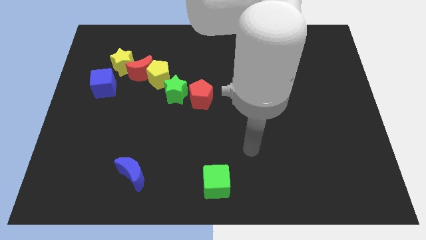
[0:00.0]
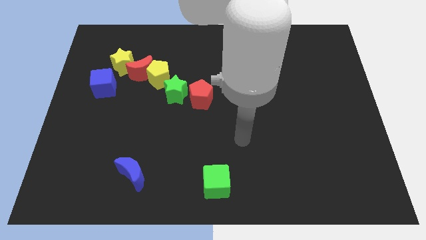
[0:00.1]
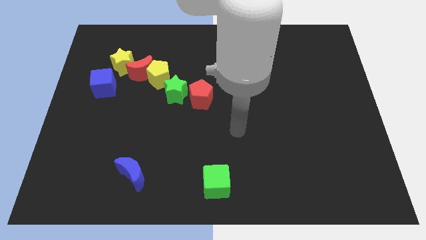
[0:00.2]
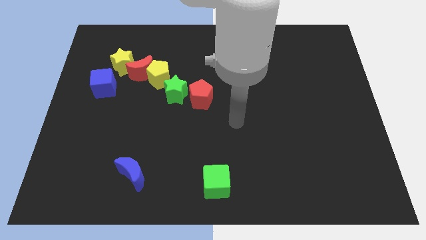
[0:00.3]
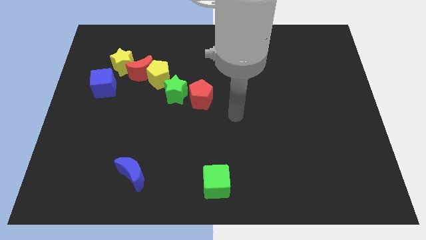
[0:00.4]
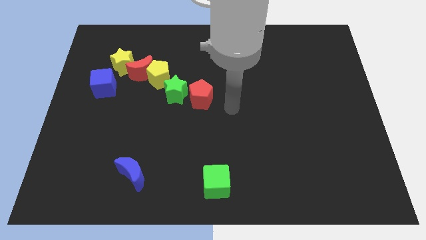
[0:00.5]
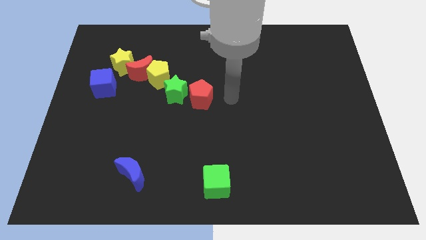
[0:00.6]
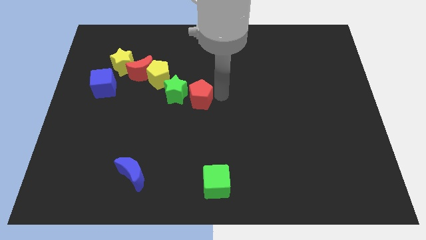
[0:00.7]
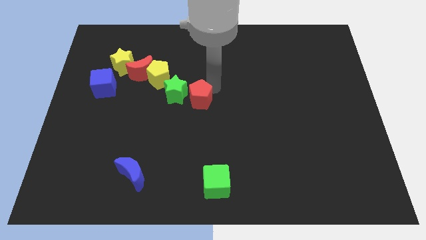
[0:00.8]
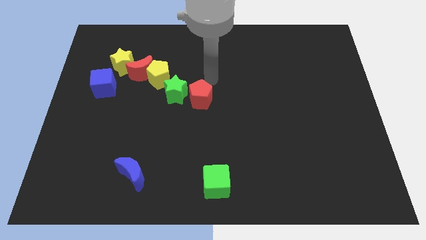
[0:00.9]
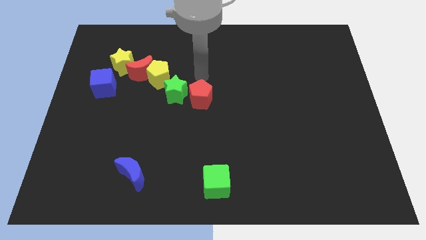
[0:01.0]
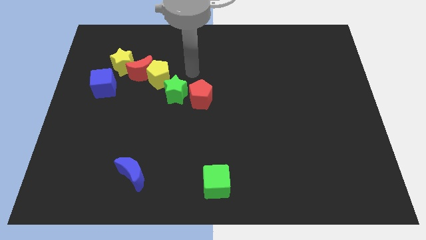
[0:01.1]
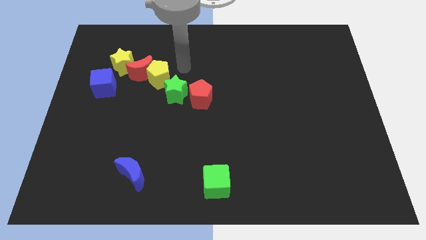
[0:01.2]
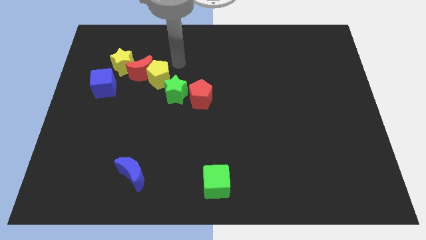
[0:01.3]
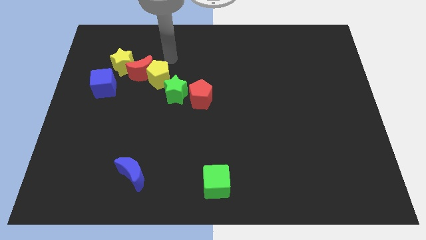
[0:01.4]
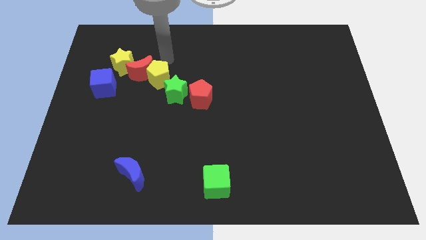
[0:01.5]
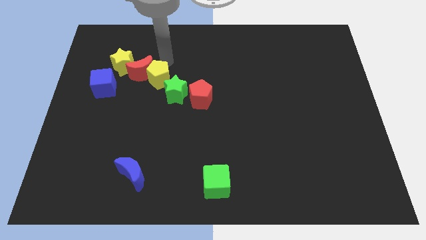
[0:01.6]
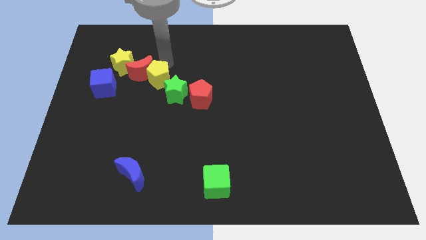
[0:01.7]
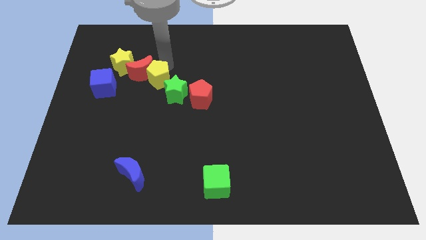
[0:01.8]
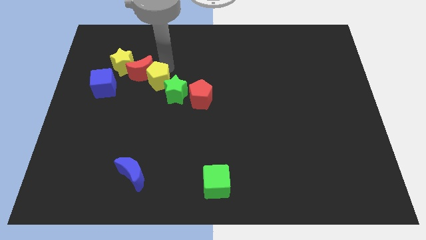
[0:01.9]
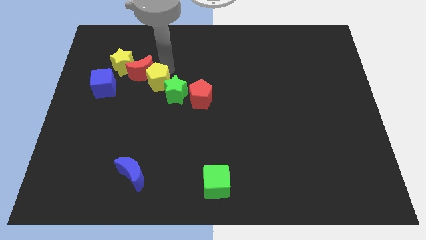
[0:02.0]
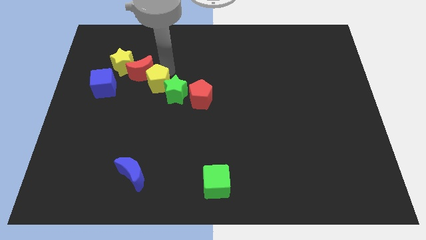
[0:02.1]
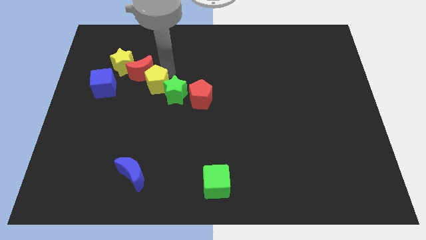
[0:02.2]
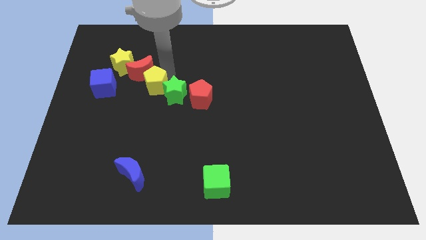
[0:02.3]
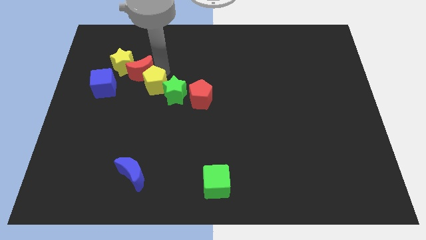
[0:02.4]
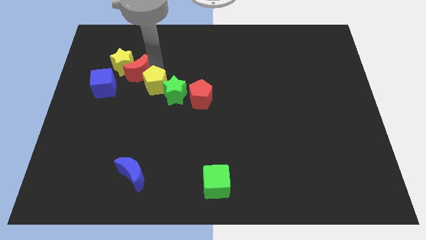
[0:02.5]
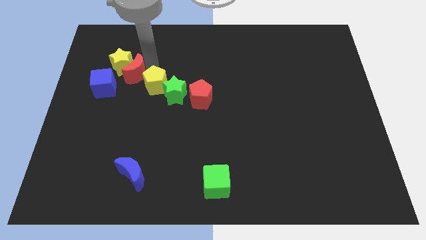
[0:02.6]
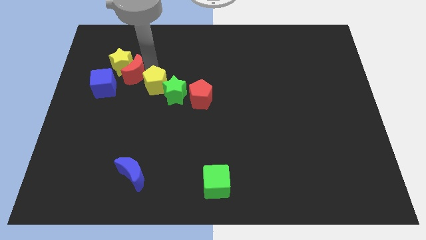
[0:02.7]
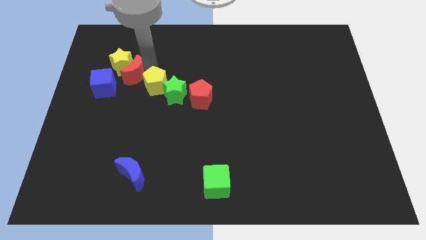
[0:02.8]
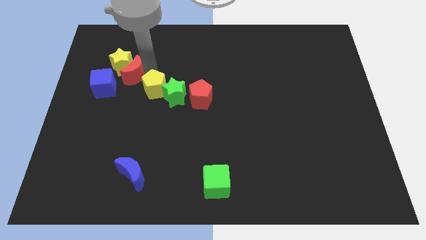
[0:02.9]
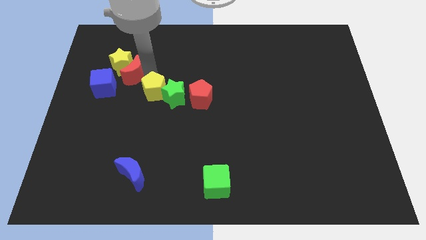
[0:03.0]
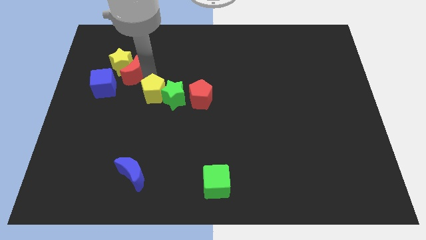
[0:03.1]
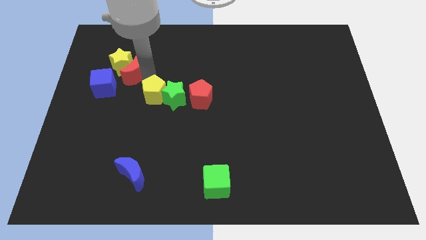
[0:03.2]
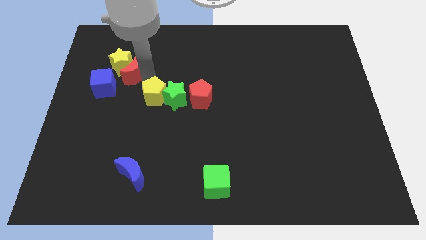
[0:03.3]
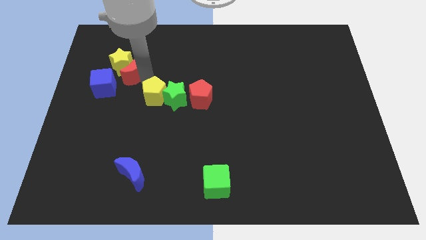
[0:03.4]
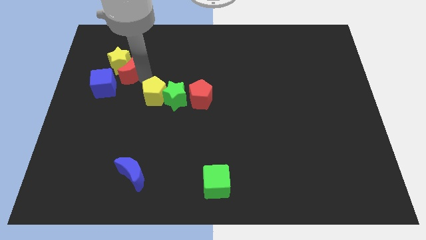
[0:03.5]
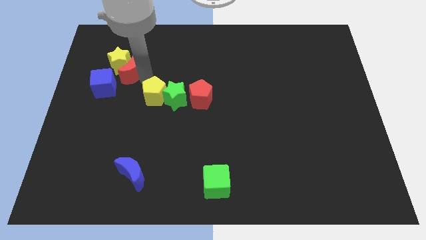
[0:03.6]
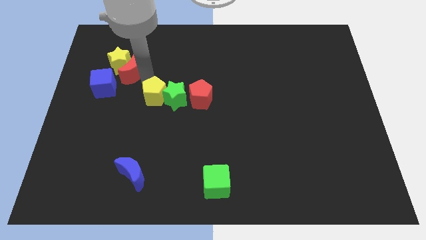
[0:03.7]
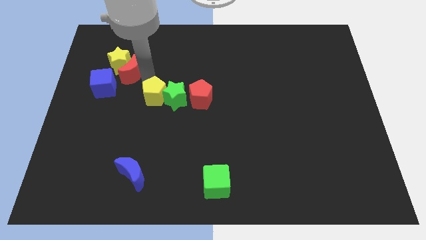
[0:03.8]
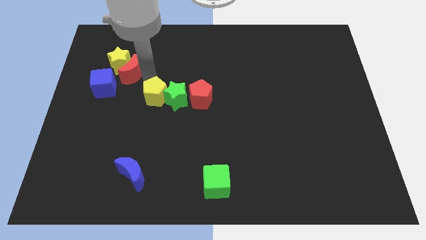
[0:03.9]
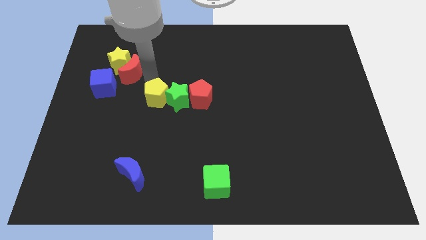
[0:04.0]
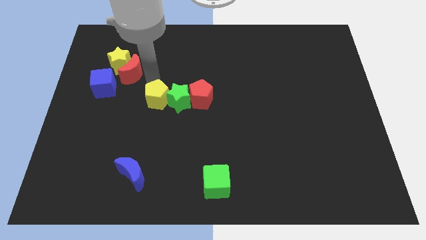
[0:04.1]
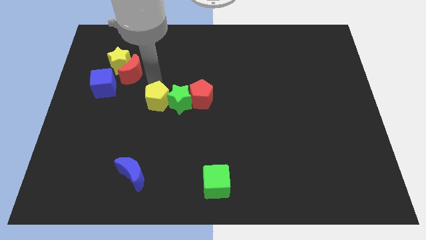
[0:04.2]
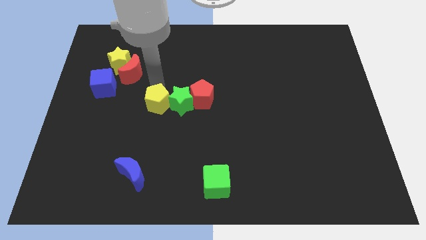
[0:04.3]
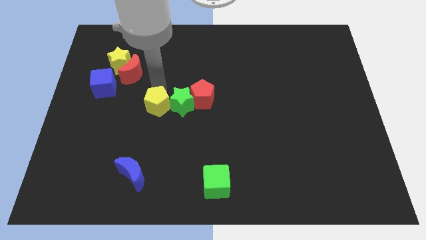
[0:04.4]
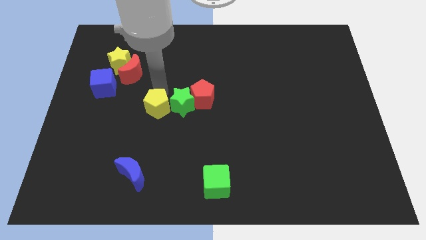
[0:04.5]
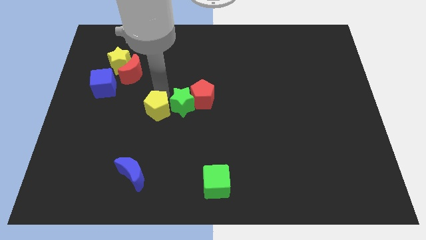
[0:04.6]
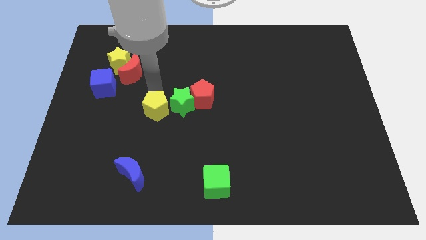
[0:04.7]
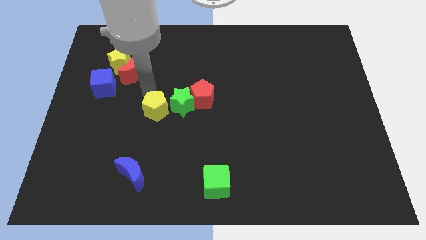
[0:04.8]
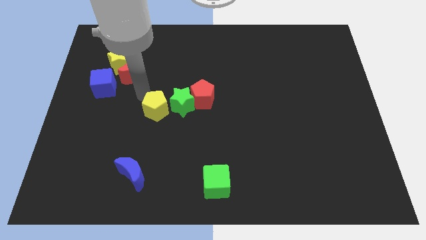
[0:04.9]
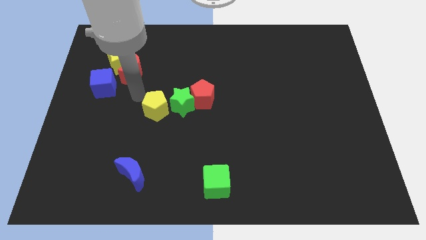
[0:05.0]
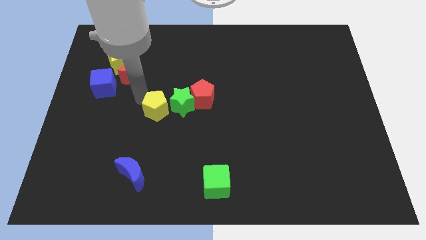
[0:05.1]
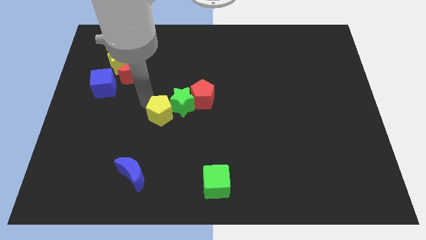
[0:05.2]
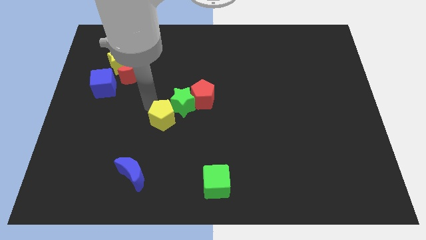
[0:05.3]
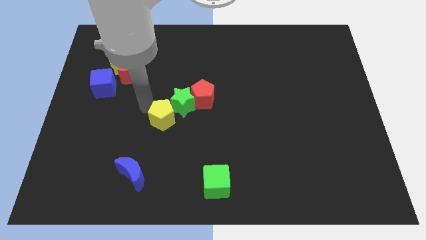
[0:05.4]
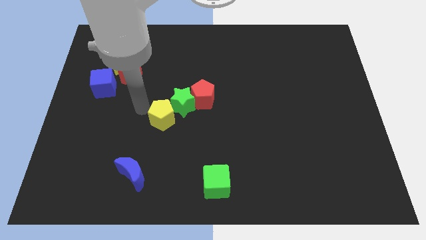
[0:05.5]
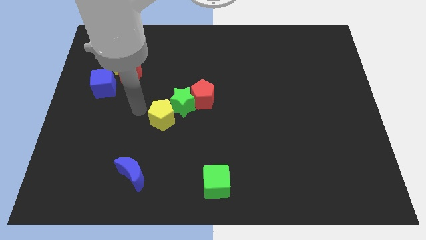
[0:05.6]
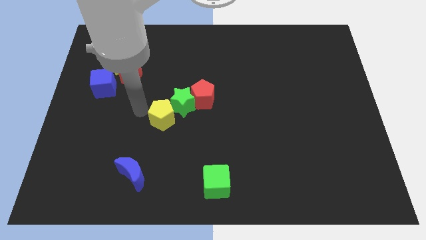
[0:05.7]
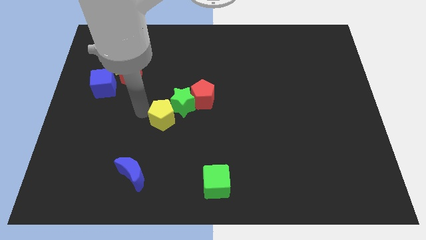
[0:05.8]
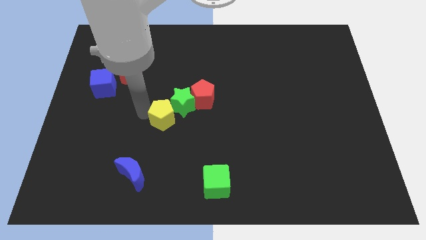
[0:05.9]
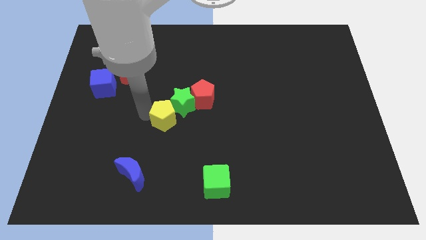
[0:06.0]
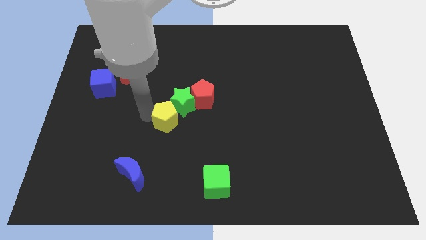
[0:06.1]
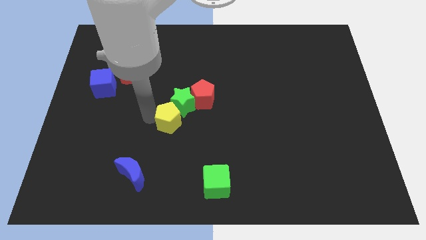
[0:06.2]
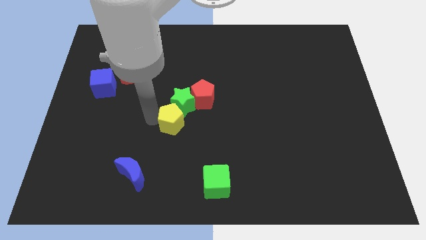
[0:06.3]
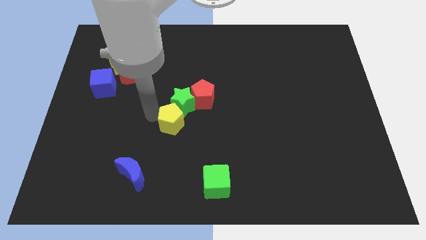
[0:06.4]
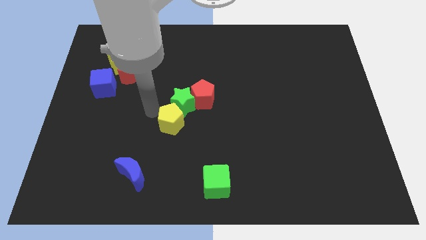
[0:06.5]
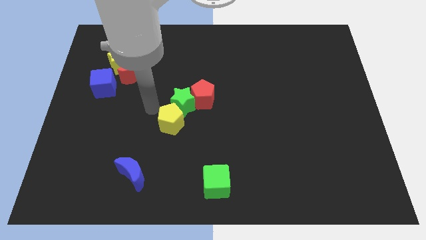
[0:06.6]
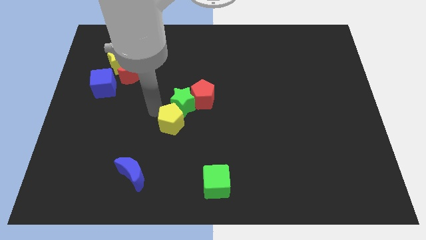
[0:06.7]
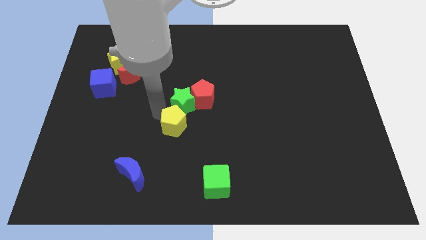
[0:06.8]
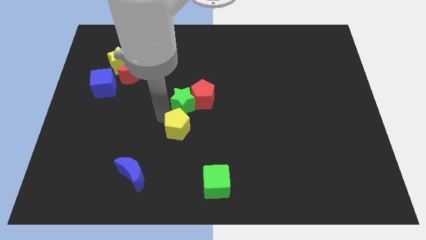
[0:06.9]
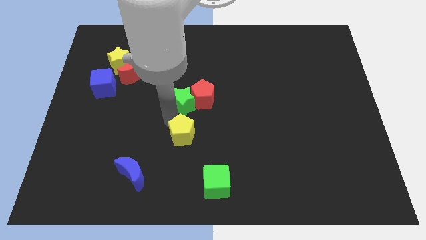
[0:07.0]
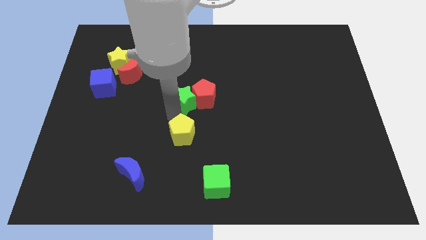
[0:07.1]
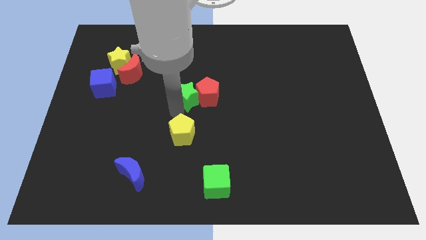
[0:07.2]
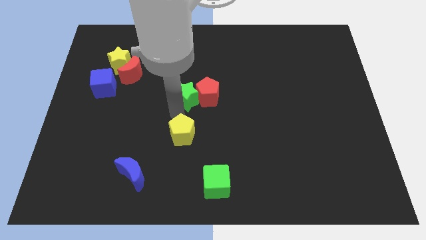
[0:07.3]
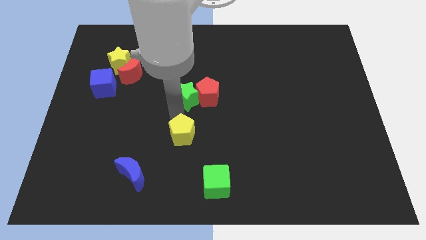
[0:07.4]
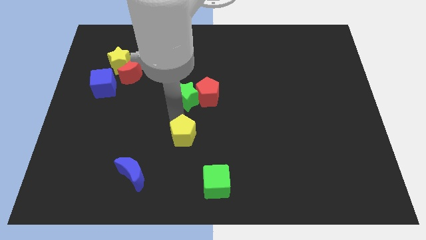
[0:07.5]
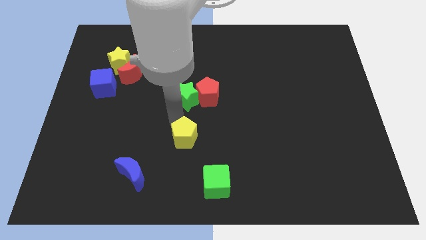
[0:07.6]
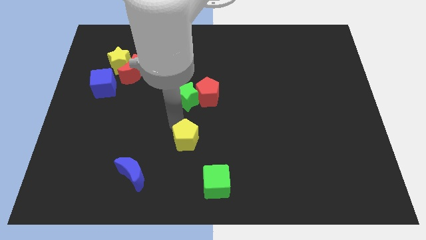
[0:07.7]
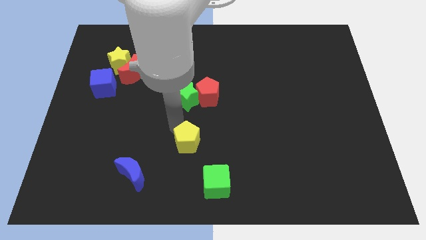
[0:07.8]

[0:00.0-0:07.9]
put the yellow pentagon diagonally up and to the left of the green cube
